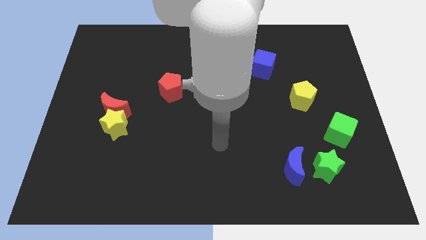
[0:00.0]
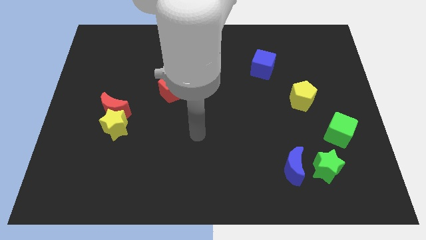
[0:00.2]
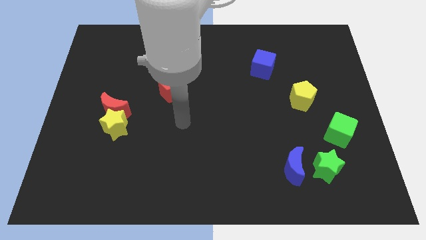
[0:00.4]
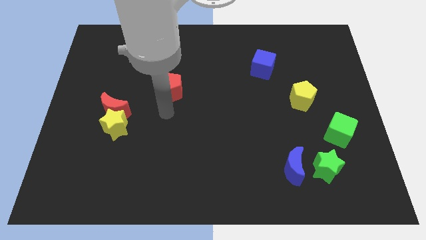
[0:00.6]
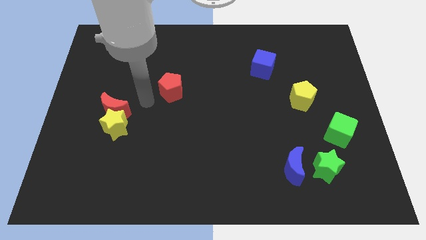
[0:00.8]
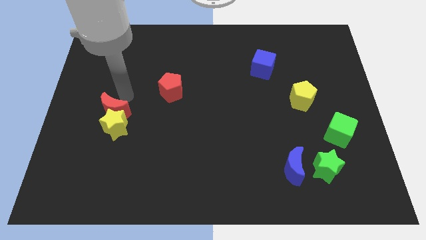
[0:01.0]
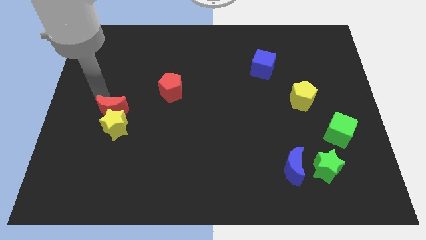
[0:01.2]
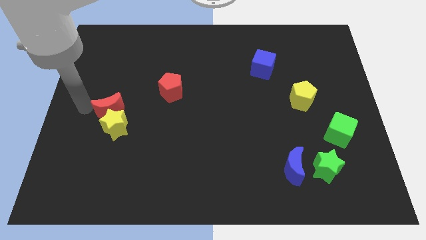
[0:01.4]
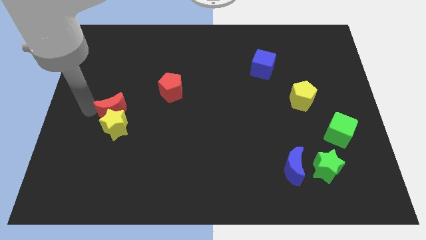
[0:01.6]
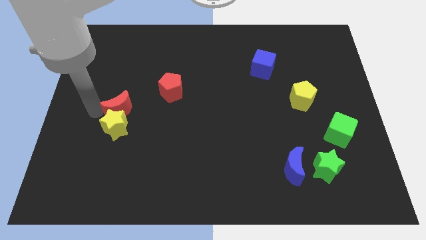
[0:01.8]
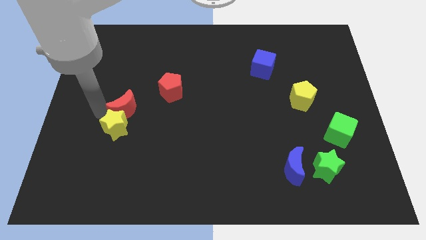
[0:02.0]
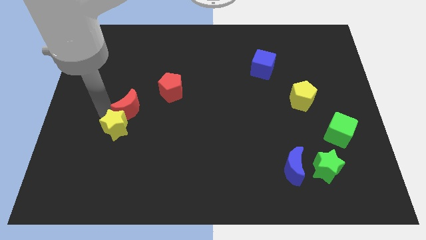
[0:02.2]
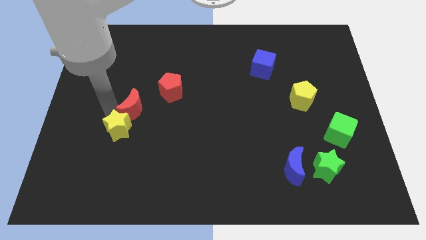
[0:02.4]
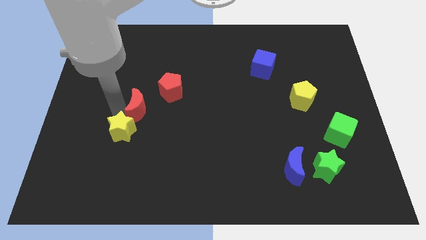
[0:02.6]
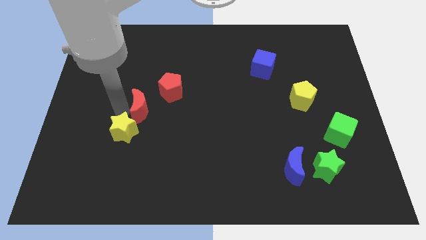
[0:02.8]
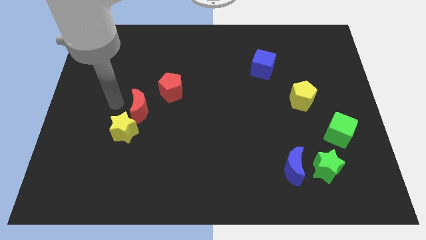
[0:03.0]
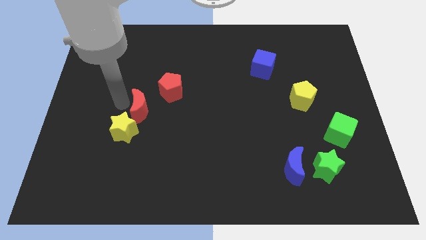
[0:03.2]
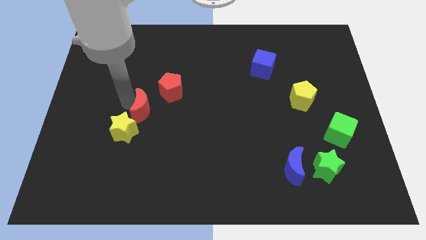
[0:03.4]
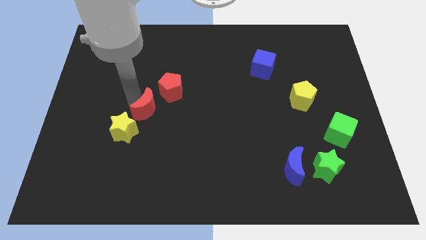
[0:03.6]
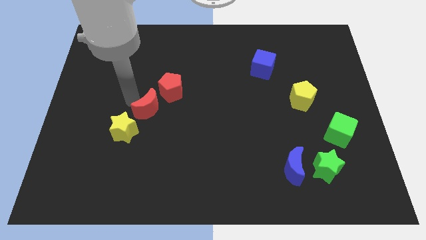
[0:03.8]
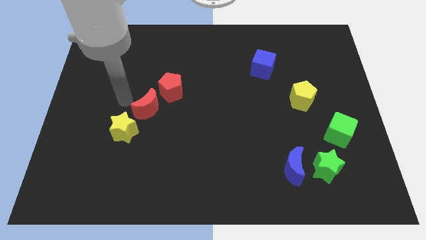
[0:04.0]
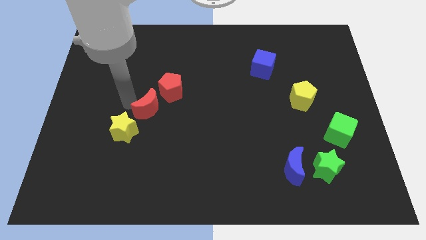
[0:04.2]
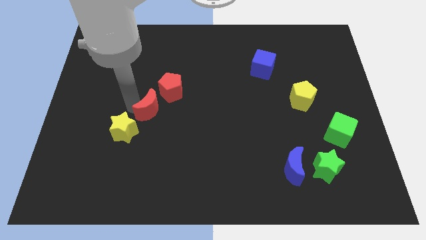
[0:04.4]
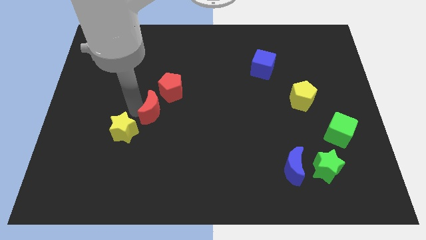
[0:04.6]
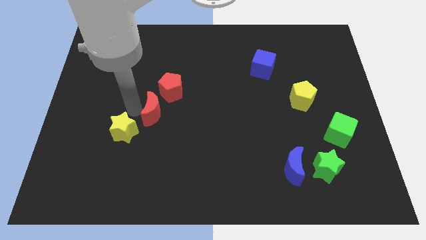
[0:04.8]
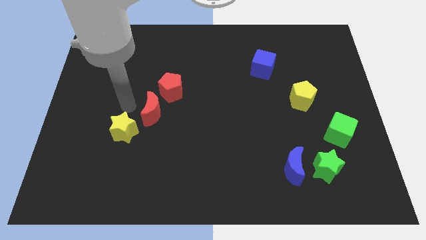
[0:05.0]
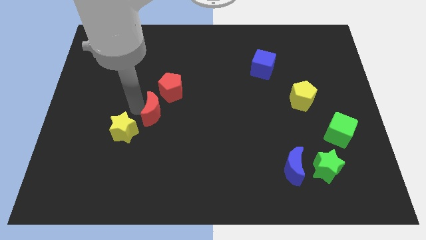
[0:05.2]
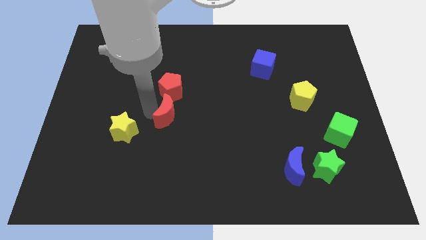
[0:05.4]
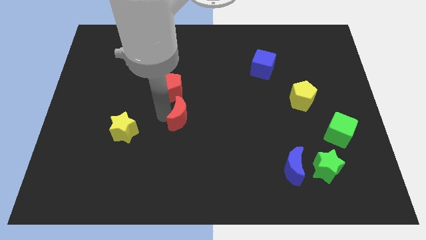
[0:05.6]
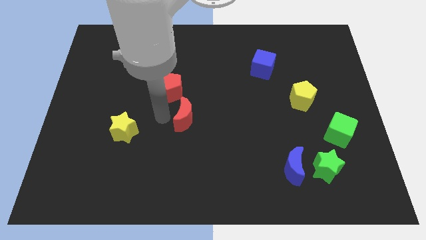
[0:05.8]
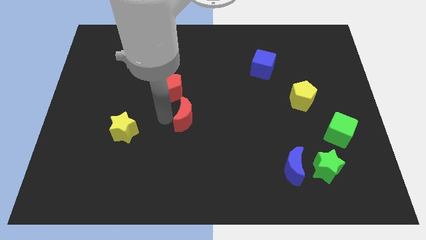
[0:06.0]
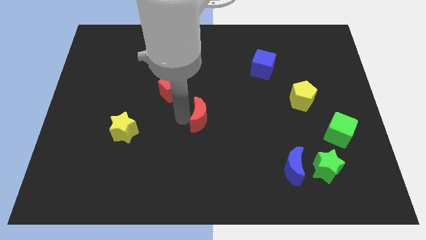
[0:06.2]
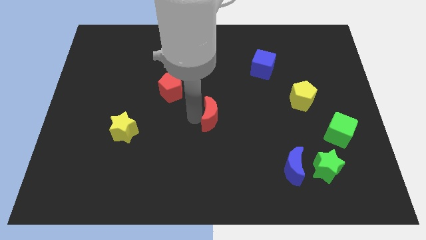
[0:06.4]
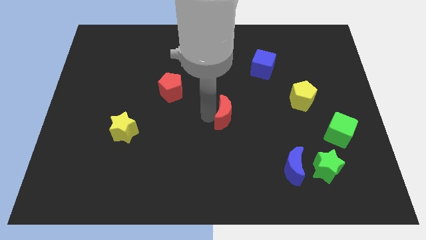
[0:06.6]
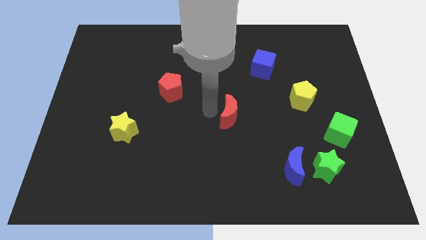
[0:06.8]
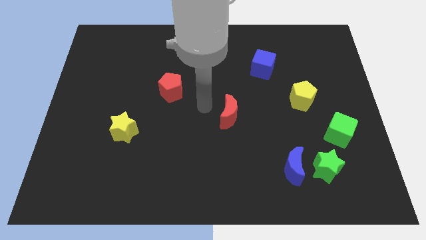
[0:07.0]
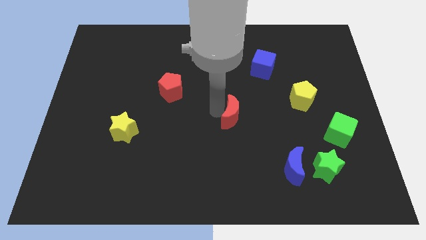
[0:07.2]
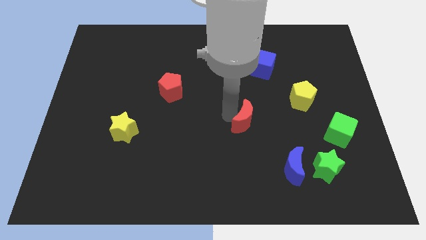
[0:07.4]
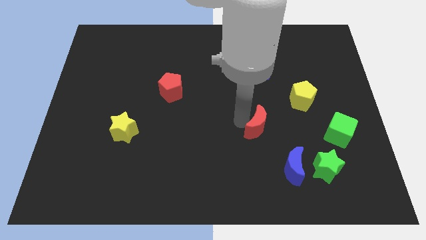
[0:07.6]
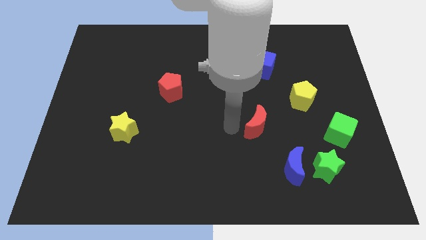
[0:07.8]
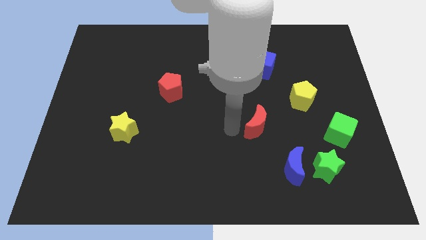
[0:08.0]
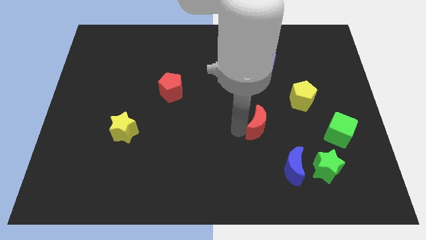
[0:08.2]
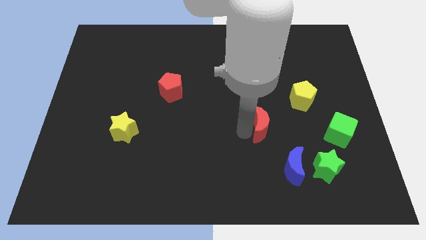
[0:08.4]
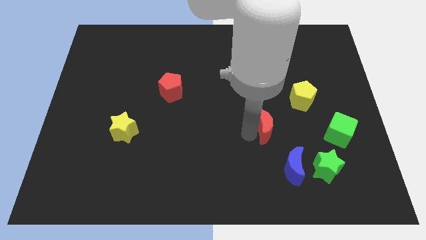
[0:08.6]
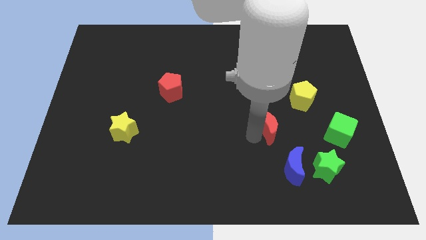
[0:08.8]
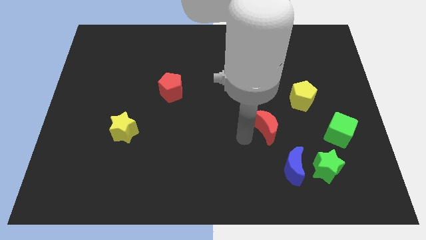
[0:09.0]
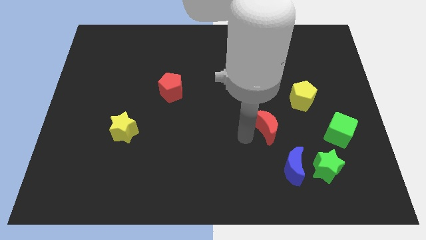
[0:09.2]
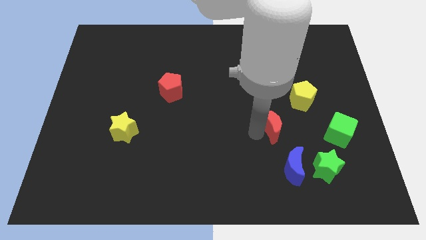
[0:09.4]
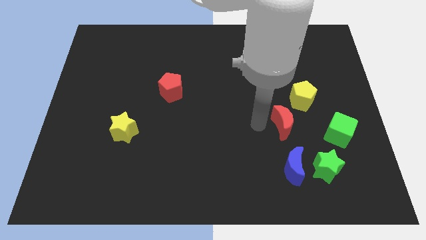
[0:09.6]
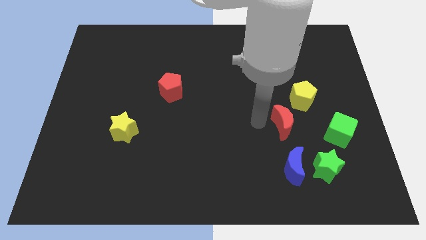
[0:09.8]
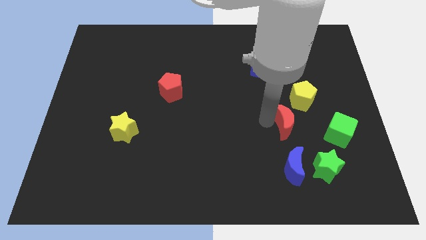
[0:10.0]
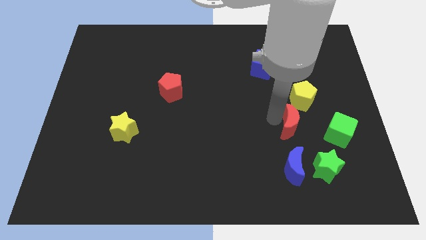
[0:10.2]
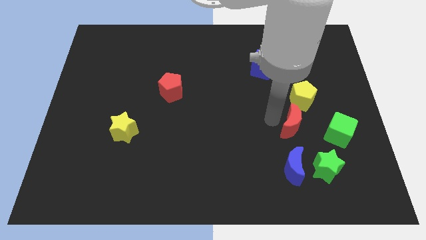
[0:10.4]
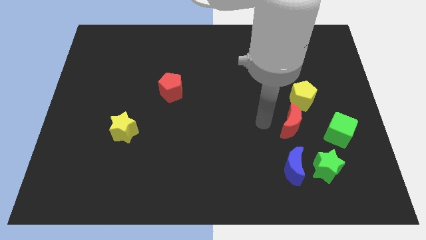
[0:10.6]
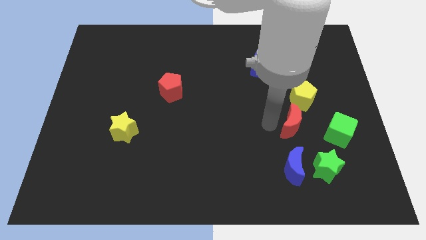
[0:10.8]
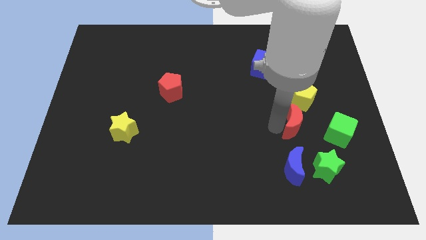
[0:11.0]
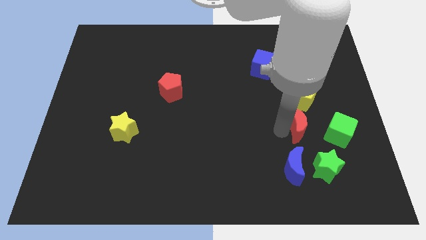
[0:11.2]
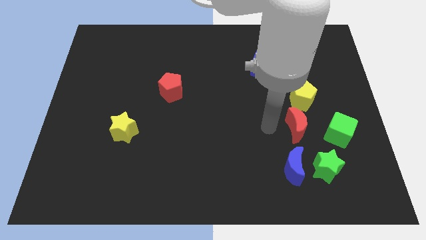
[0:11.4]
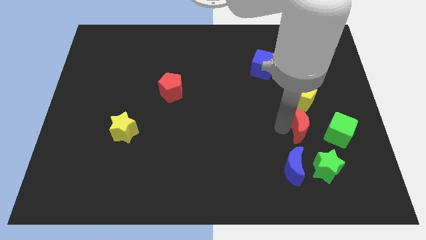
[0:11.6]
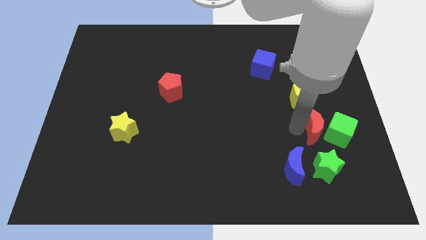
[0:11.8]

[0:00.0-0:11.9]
put the red moon towards the green cube
